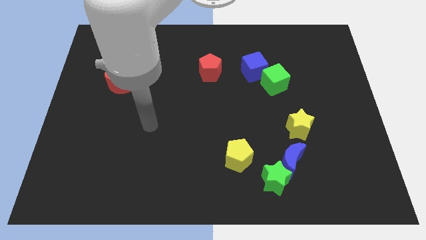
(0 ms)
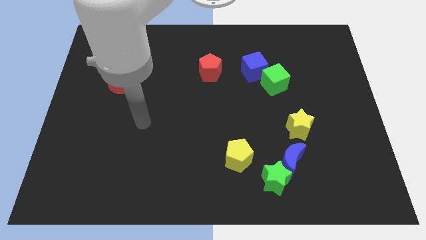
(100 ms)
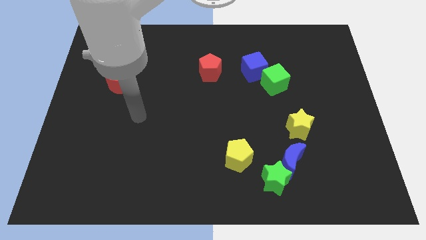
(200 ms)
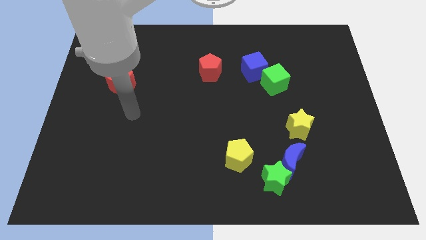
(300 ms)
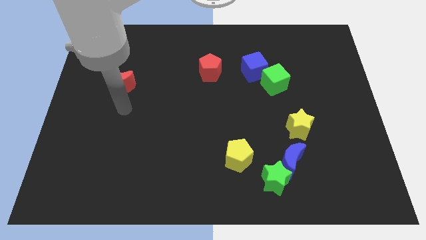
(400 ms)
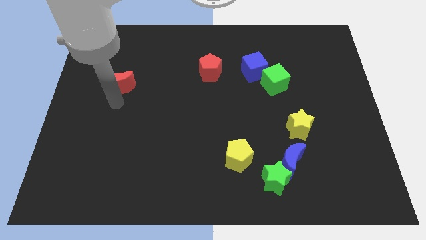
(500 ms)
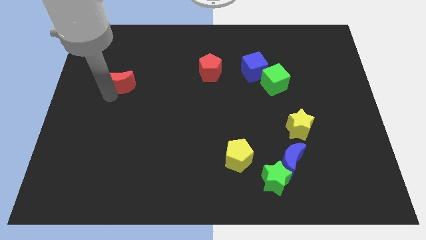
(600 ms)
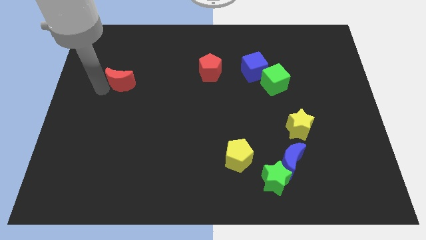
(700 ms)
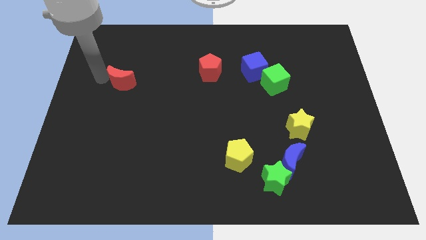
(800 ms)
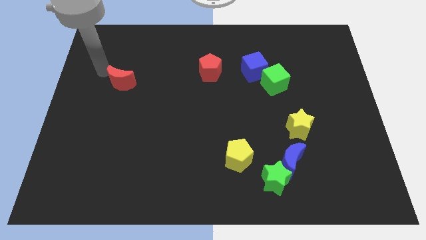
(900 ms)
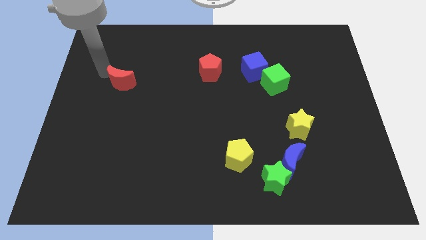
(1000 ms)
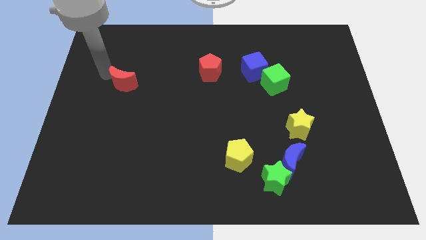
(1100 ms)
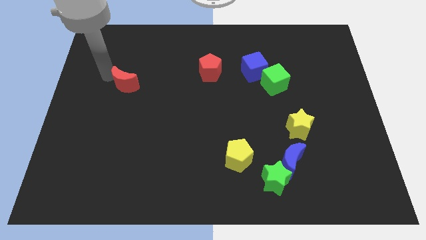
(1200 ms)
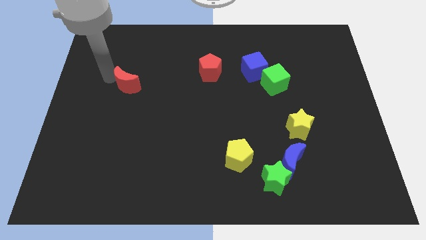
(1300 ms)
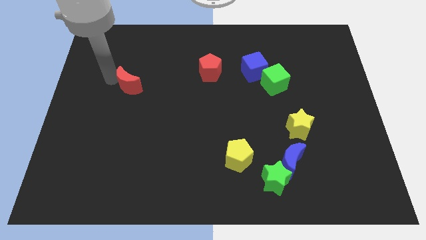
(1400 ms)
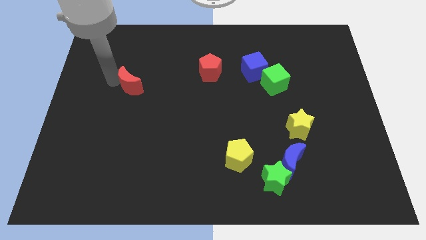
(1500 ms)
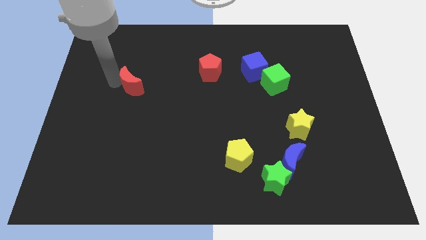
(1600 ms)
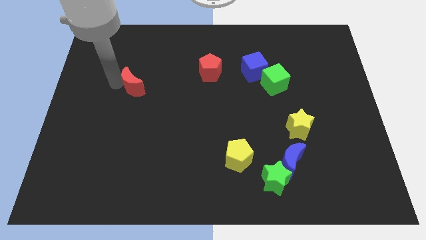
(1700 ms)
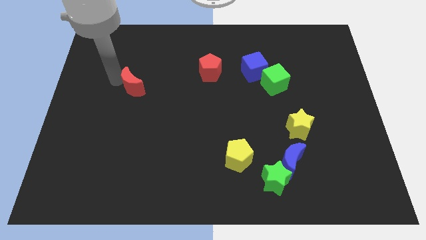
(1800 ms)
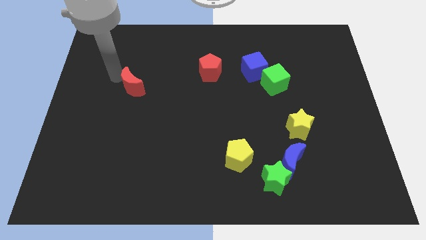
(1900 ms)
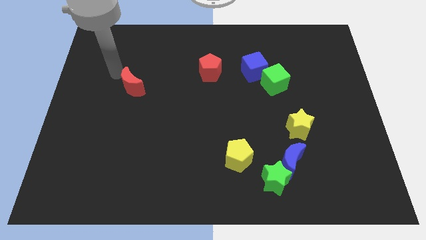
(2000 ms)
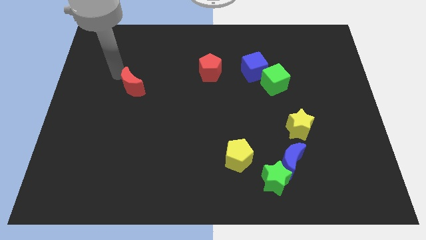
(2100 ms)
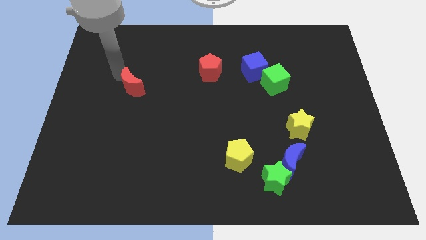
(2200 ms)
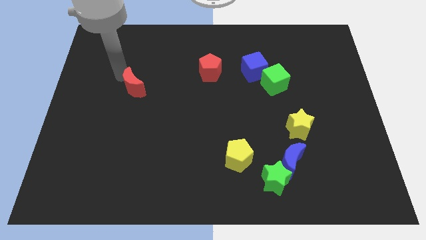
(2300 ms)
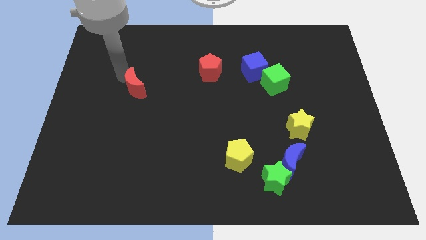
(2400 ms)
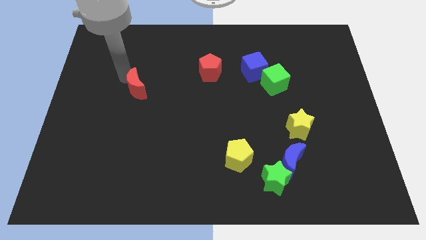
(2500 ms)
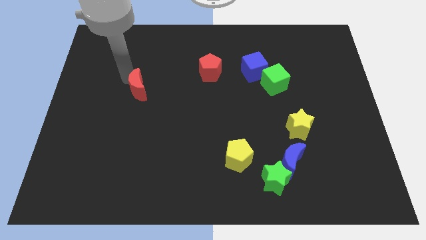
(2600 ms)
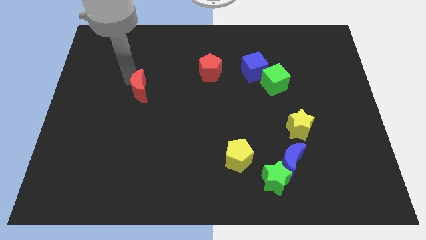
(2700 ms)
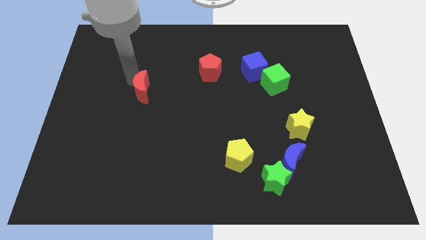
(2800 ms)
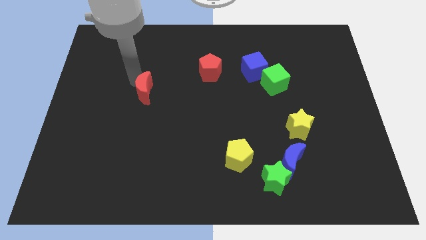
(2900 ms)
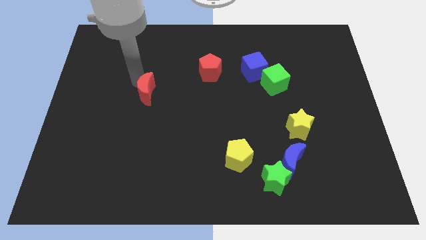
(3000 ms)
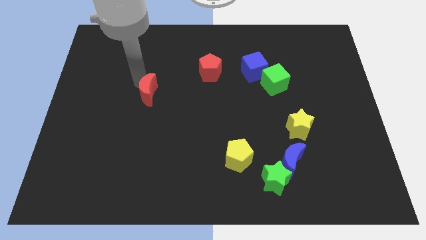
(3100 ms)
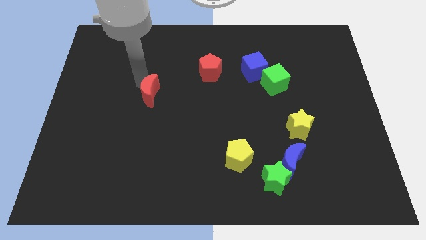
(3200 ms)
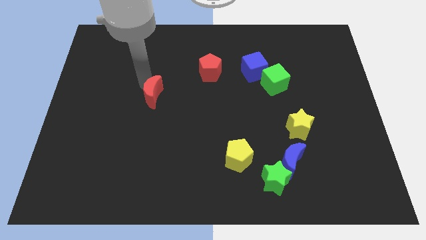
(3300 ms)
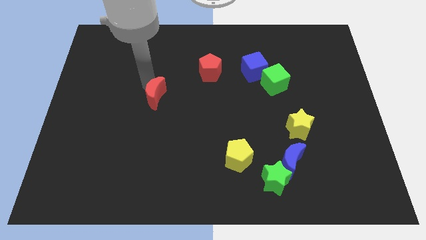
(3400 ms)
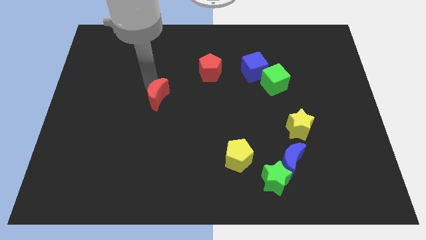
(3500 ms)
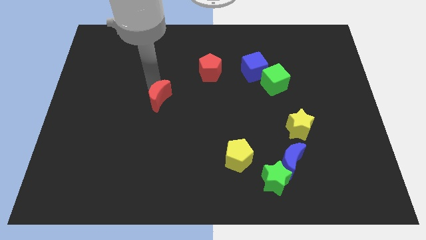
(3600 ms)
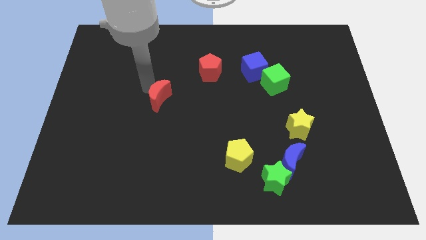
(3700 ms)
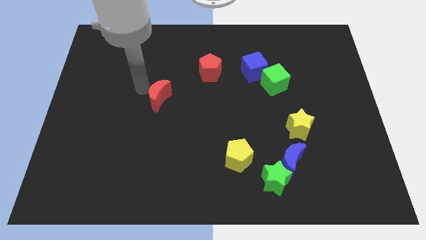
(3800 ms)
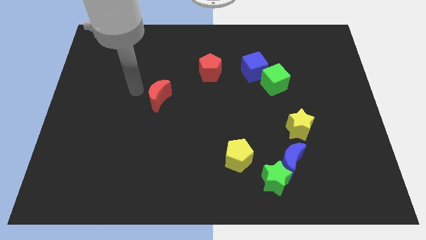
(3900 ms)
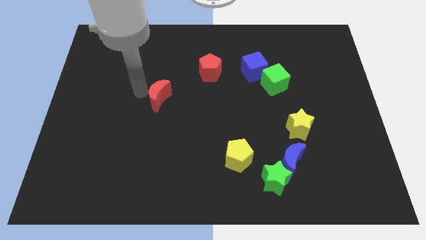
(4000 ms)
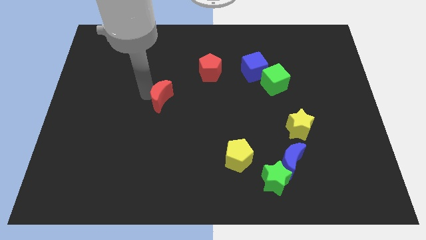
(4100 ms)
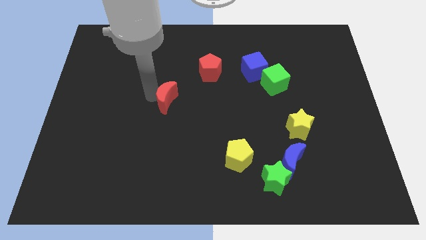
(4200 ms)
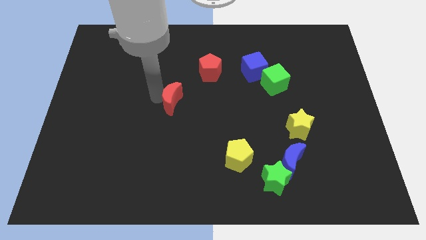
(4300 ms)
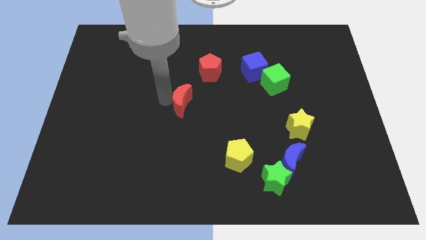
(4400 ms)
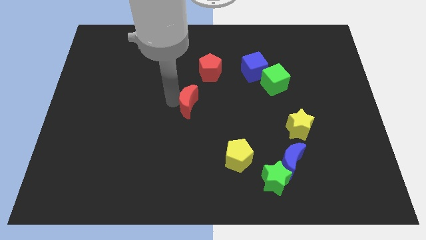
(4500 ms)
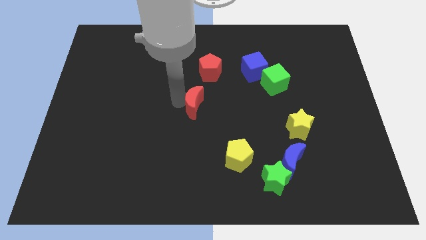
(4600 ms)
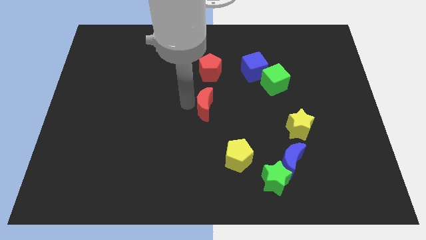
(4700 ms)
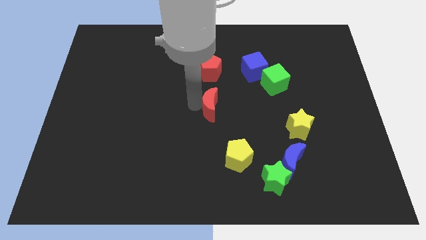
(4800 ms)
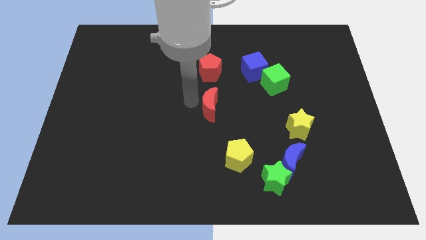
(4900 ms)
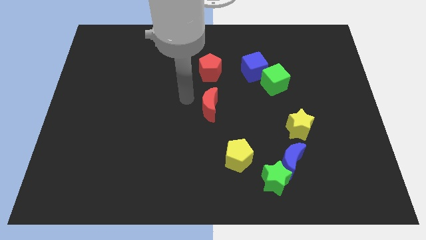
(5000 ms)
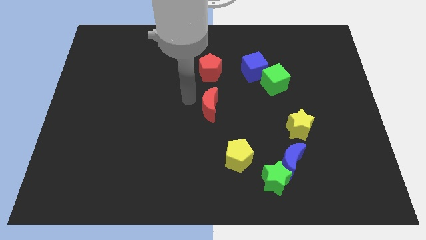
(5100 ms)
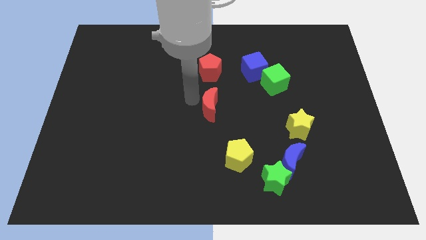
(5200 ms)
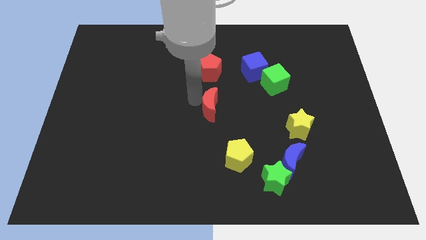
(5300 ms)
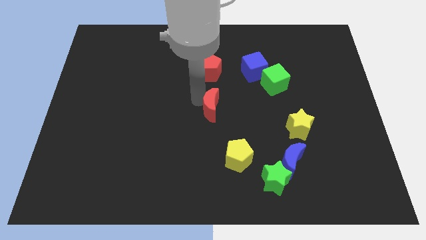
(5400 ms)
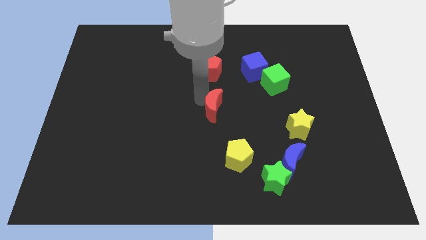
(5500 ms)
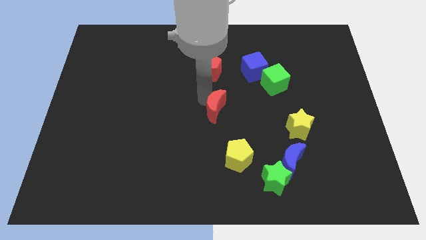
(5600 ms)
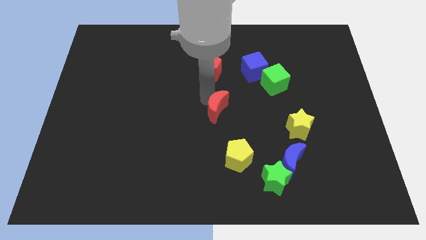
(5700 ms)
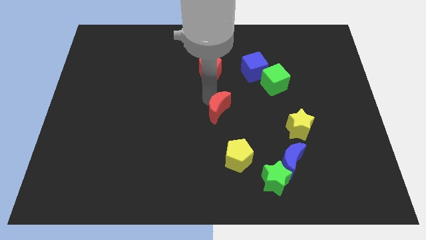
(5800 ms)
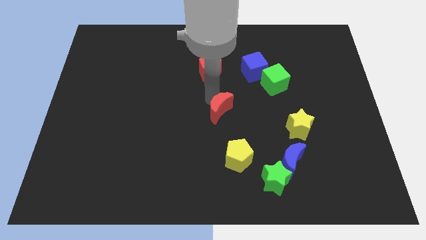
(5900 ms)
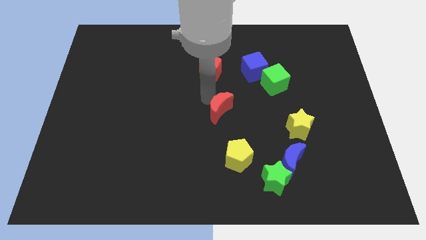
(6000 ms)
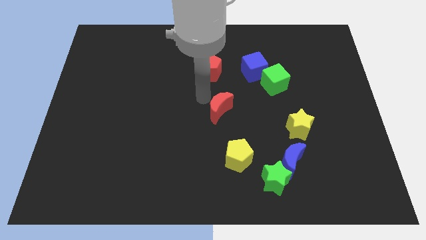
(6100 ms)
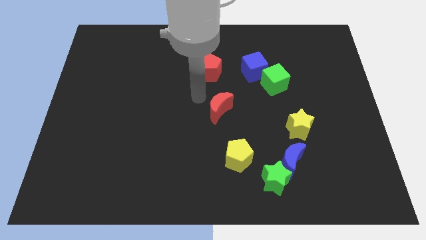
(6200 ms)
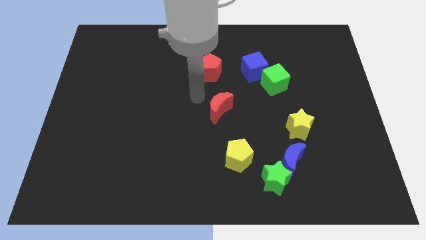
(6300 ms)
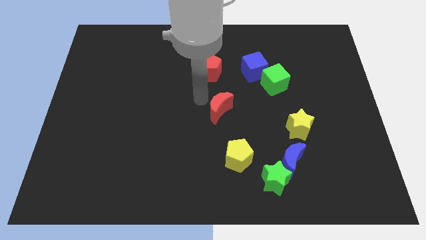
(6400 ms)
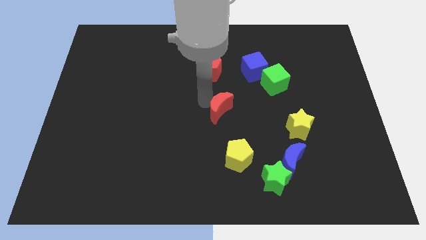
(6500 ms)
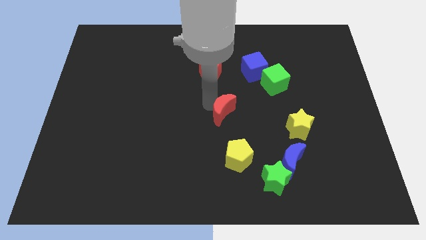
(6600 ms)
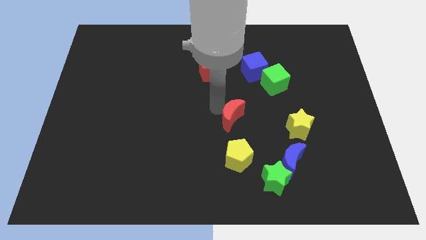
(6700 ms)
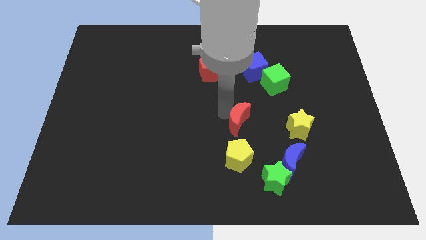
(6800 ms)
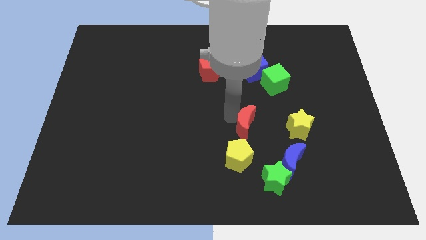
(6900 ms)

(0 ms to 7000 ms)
push the red moon diagonally up and to the right of the yellow pentagon
